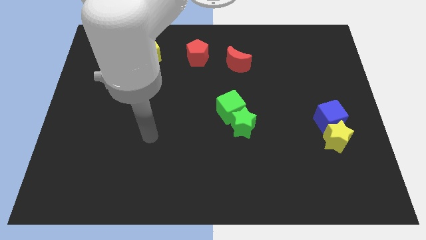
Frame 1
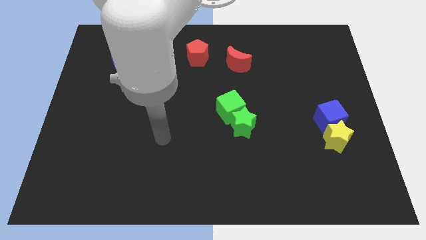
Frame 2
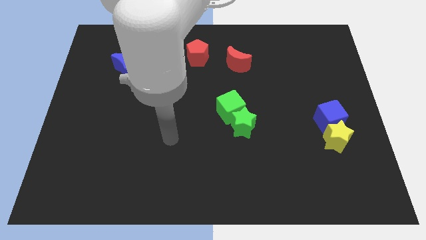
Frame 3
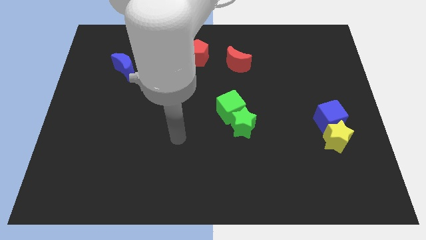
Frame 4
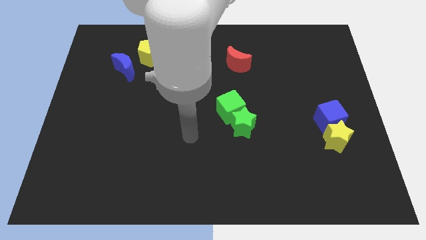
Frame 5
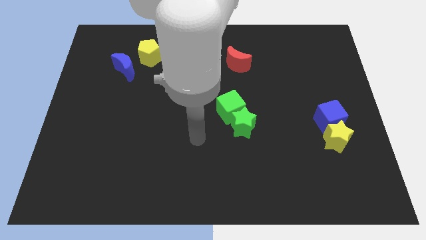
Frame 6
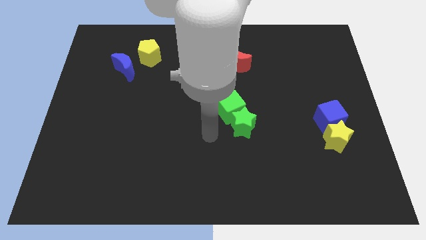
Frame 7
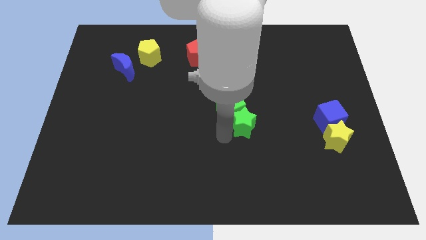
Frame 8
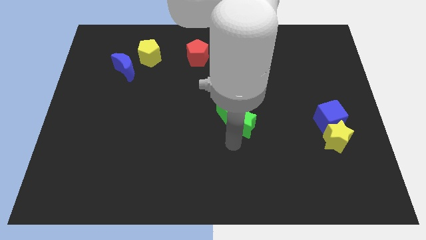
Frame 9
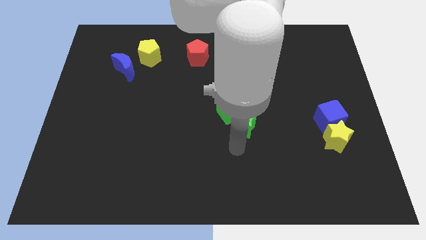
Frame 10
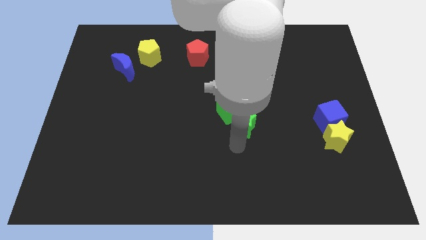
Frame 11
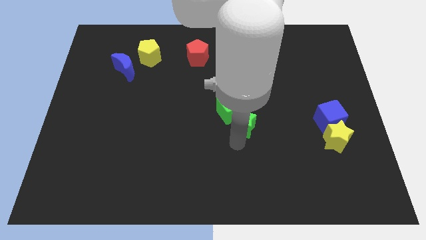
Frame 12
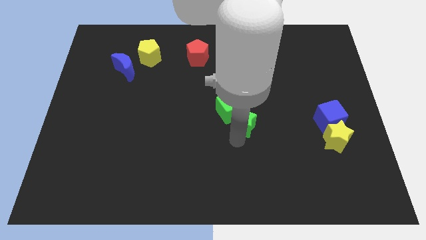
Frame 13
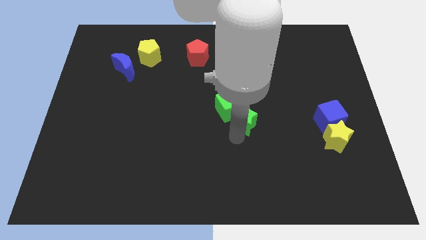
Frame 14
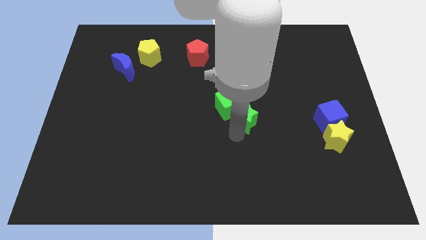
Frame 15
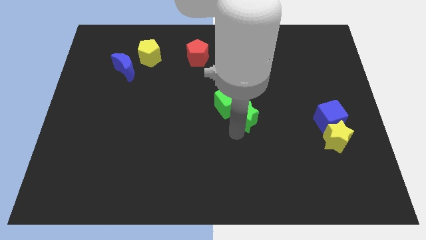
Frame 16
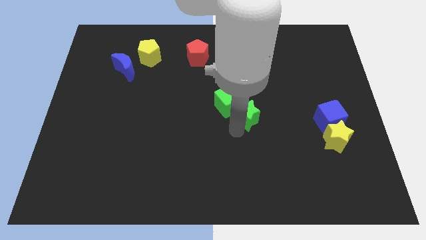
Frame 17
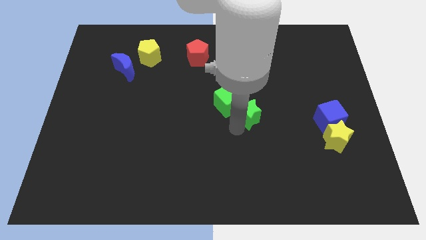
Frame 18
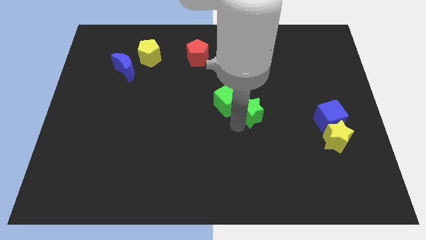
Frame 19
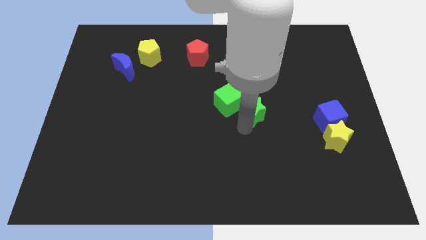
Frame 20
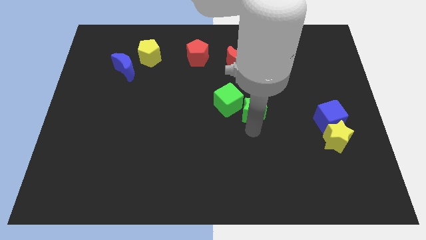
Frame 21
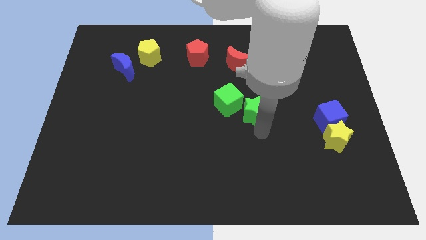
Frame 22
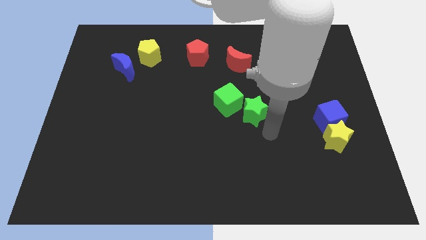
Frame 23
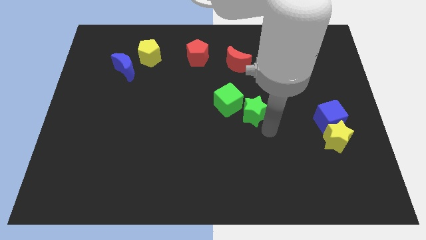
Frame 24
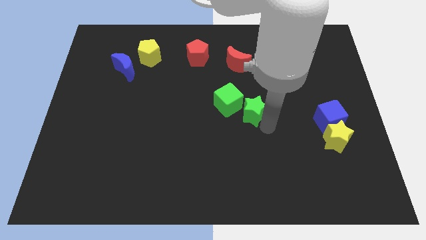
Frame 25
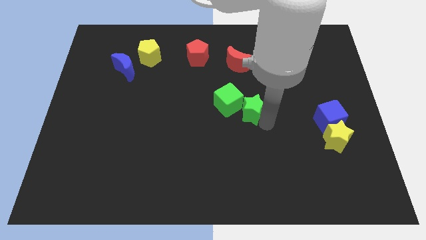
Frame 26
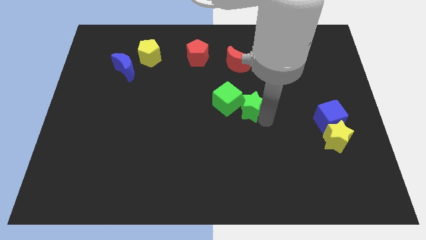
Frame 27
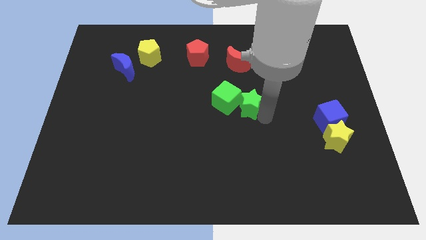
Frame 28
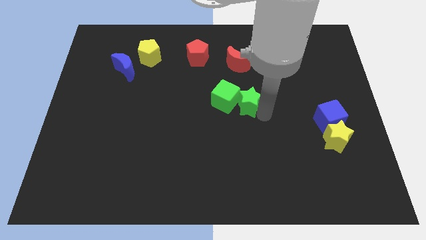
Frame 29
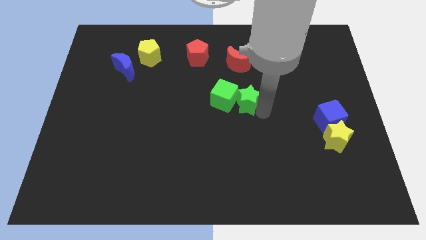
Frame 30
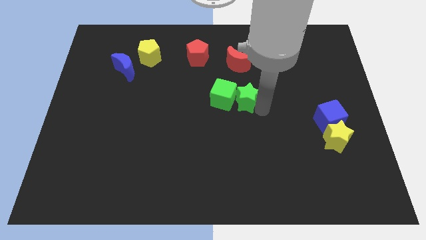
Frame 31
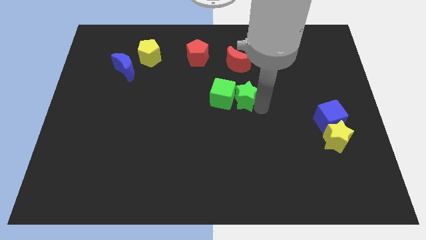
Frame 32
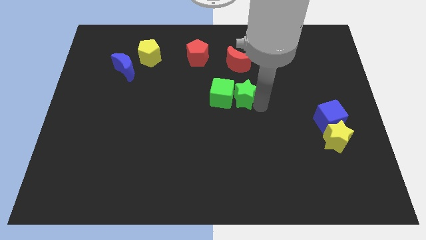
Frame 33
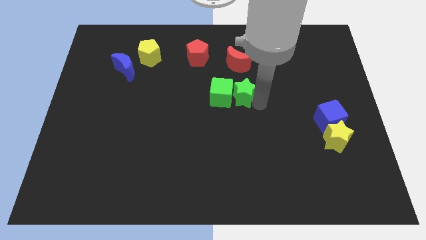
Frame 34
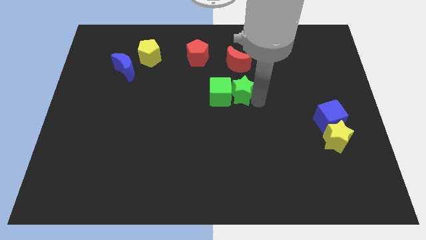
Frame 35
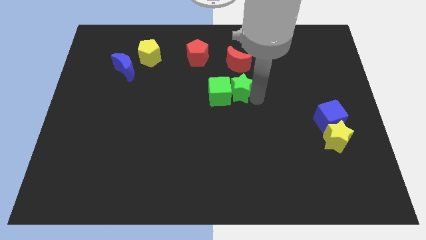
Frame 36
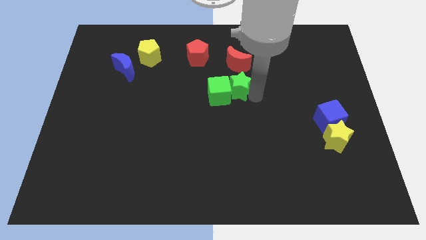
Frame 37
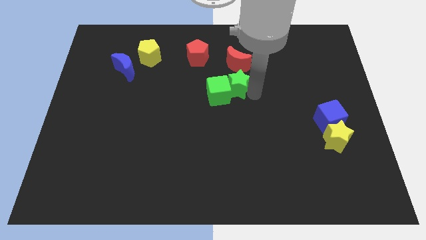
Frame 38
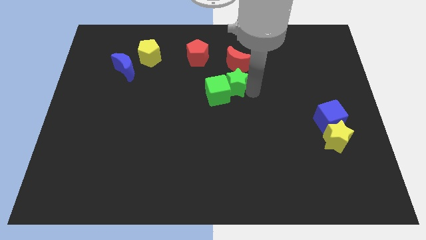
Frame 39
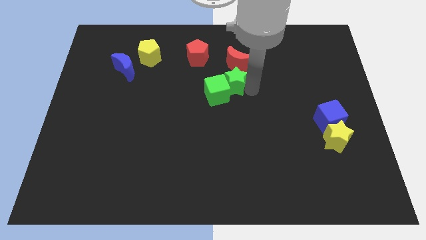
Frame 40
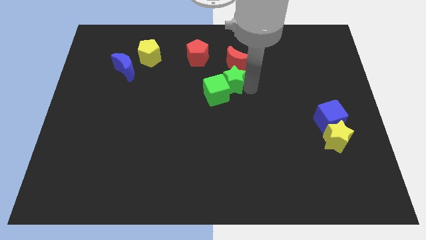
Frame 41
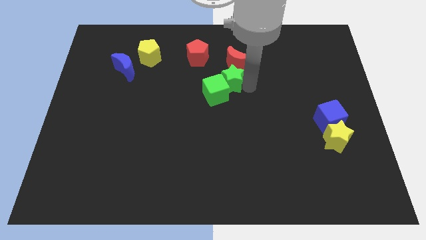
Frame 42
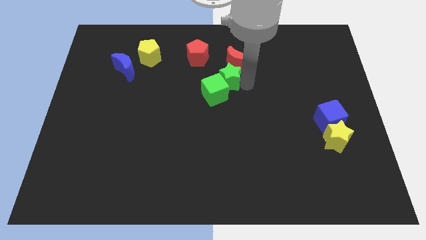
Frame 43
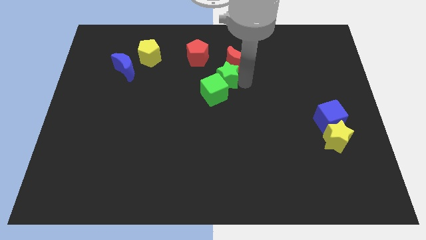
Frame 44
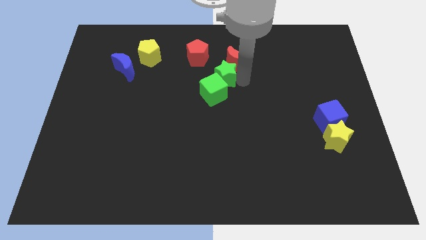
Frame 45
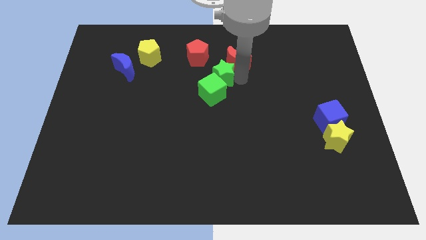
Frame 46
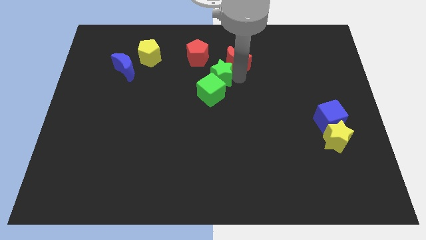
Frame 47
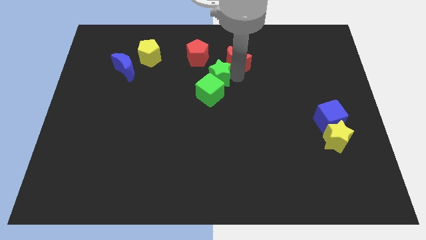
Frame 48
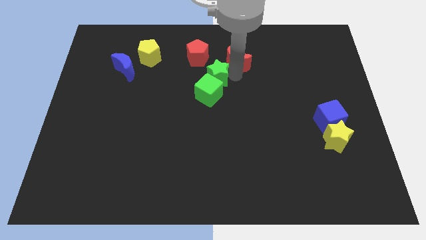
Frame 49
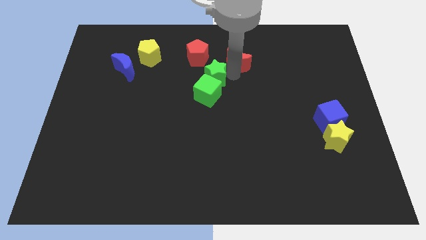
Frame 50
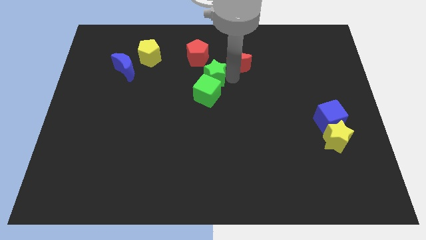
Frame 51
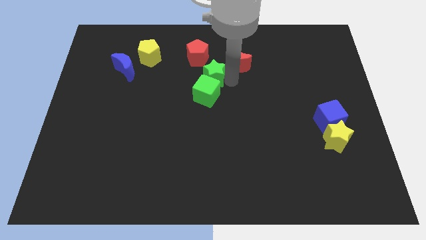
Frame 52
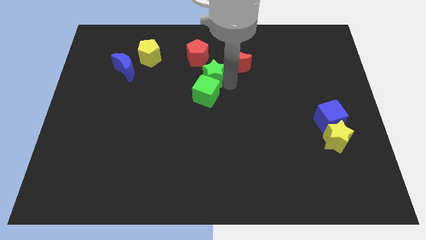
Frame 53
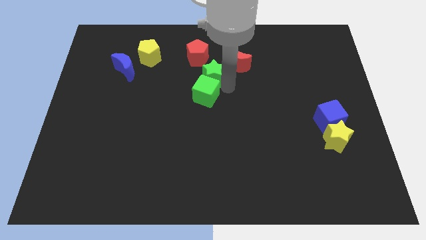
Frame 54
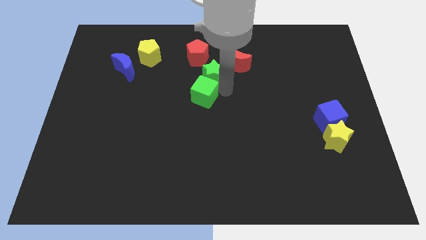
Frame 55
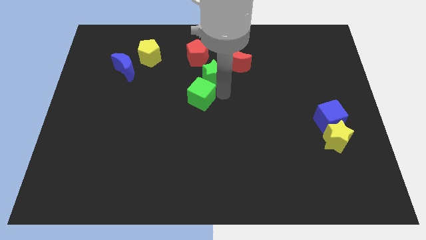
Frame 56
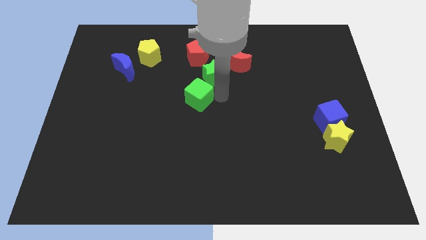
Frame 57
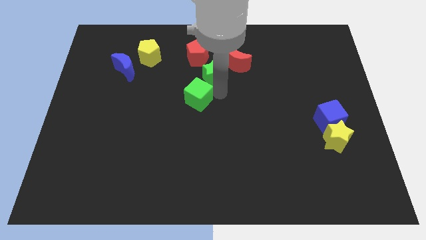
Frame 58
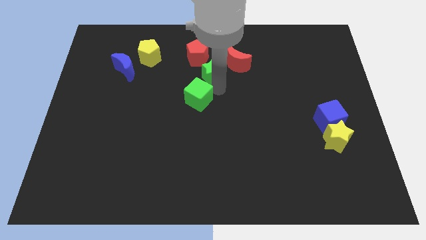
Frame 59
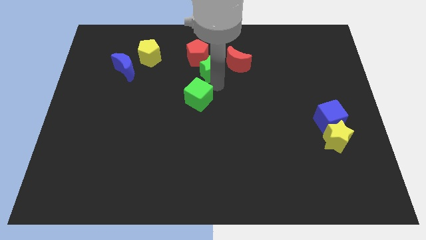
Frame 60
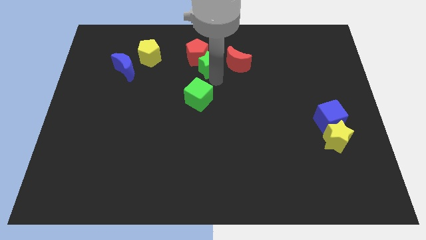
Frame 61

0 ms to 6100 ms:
move the green star next to the red pentagon

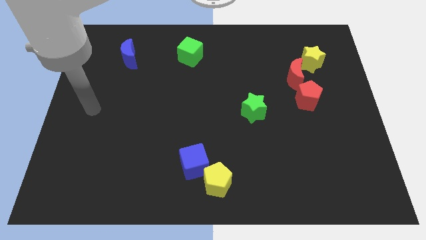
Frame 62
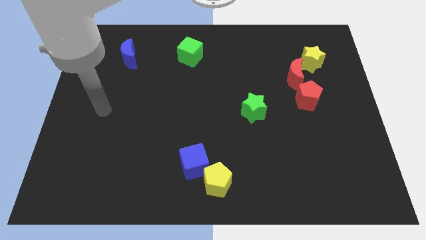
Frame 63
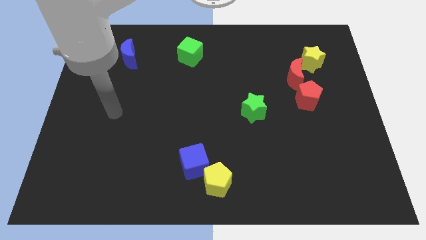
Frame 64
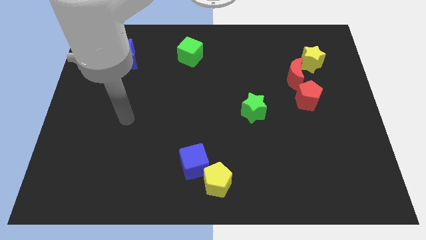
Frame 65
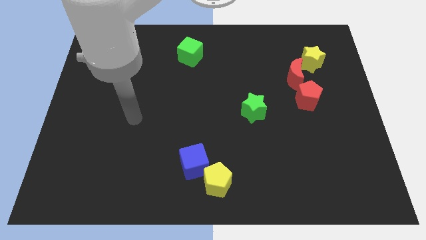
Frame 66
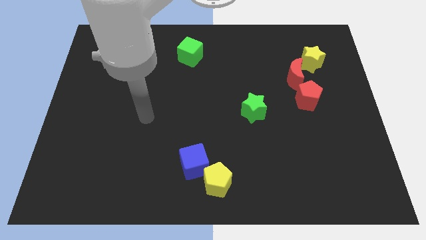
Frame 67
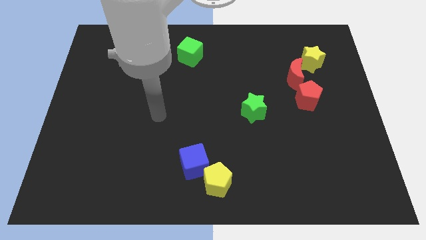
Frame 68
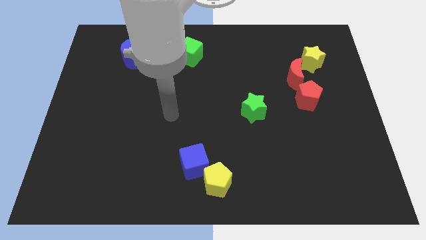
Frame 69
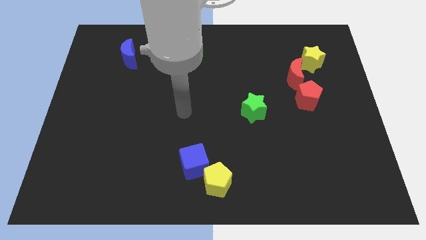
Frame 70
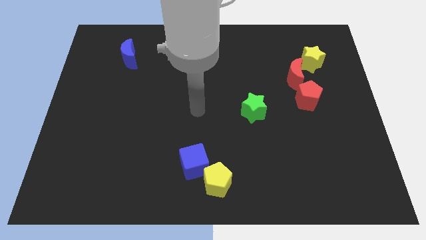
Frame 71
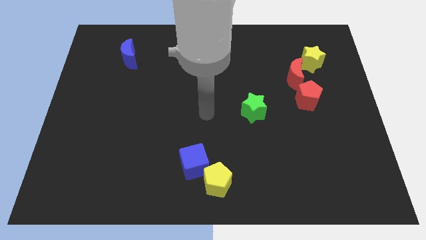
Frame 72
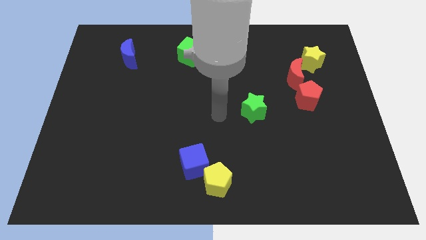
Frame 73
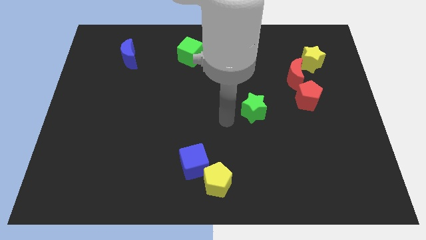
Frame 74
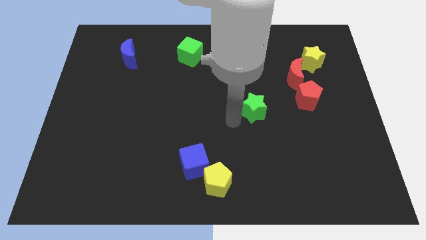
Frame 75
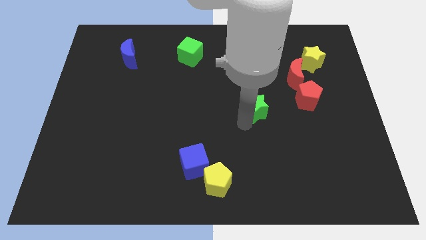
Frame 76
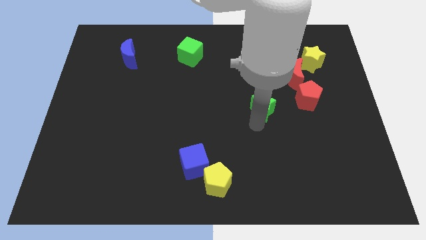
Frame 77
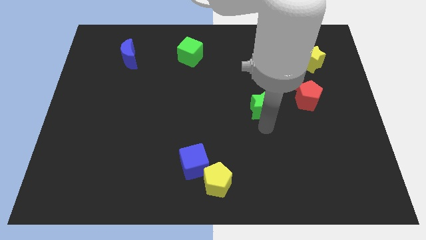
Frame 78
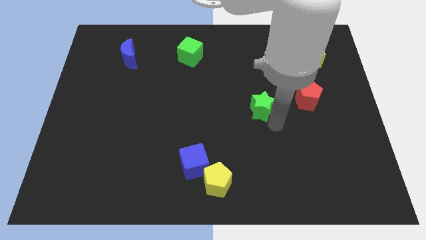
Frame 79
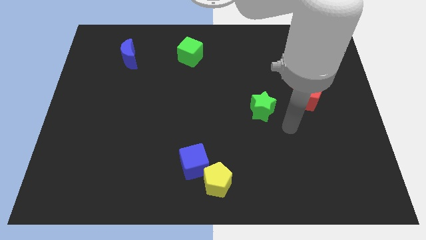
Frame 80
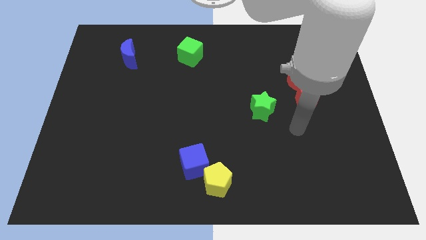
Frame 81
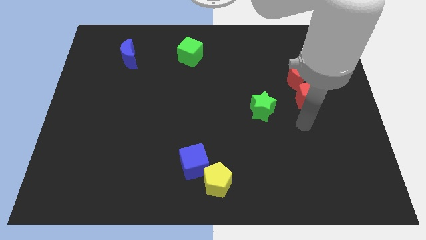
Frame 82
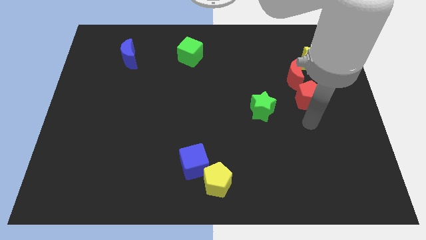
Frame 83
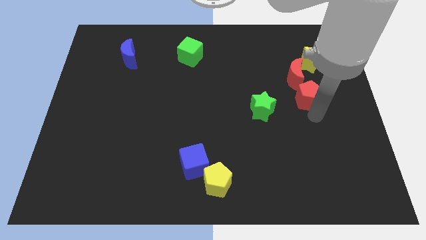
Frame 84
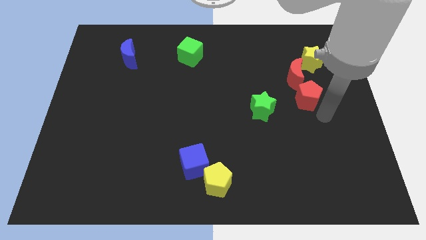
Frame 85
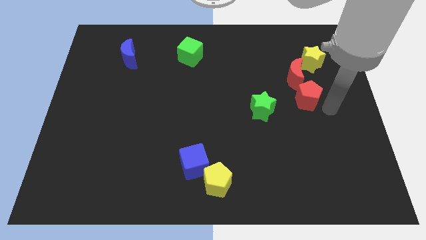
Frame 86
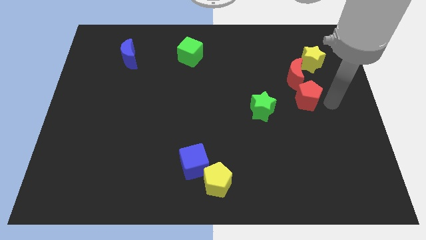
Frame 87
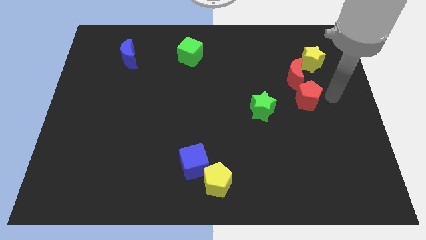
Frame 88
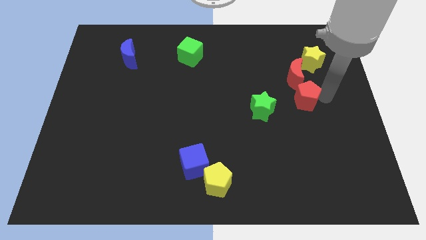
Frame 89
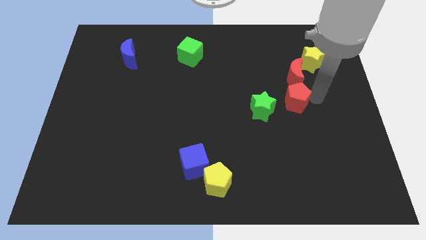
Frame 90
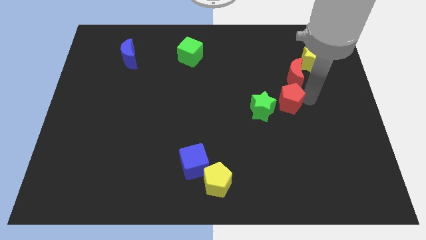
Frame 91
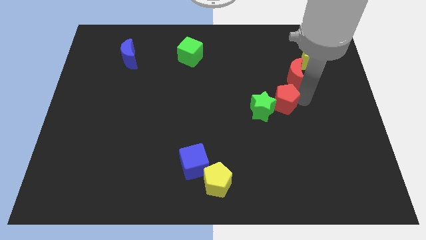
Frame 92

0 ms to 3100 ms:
push the red pentagon towards the green star
